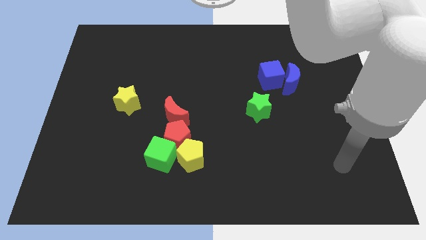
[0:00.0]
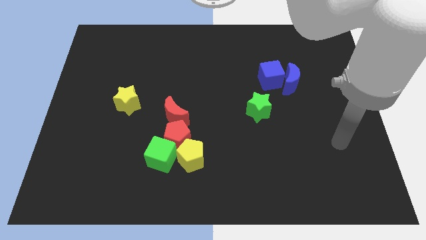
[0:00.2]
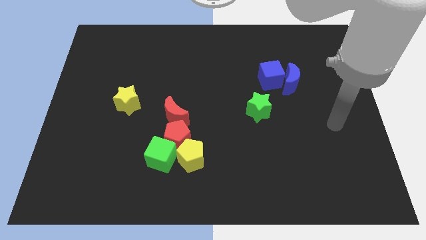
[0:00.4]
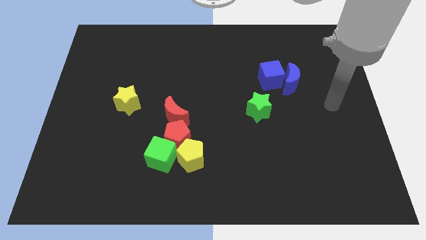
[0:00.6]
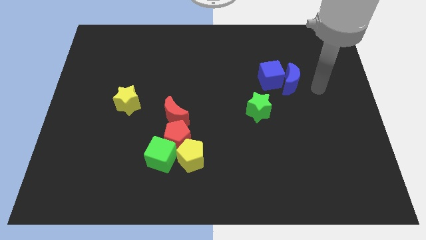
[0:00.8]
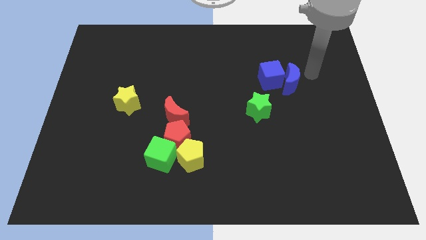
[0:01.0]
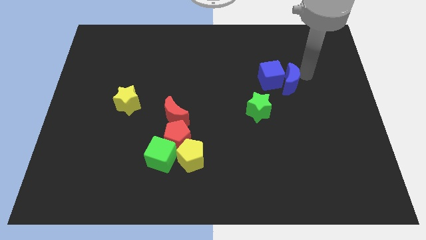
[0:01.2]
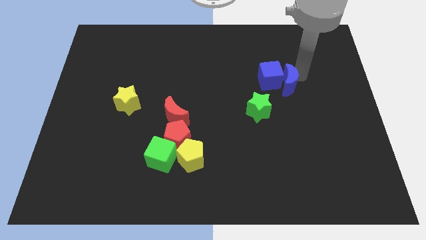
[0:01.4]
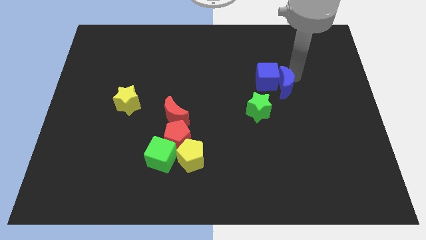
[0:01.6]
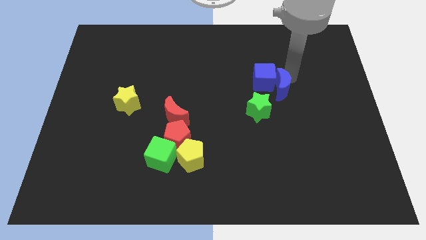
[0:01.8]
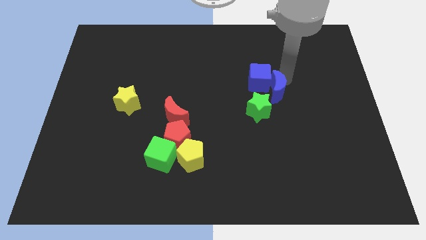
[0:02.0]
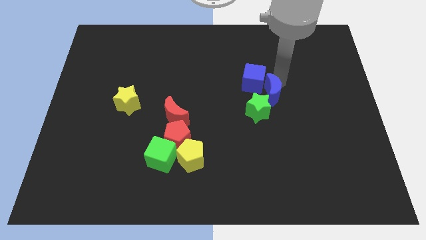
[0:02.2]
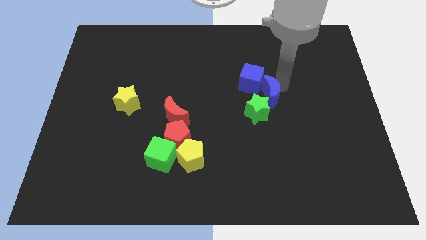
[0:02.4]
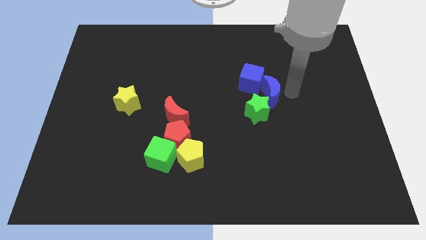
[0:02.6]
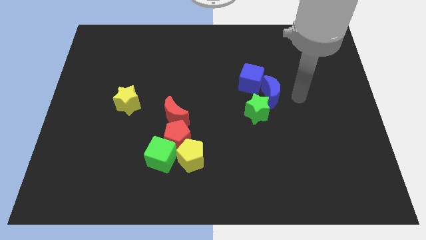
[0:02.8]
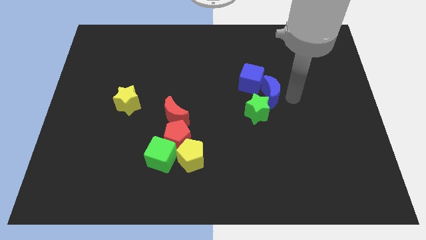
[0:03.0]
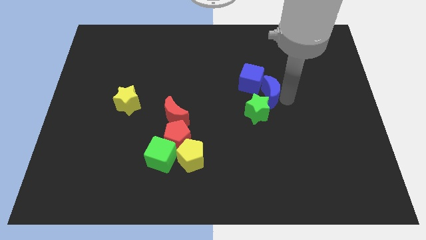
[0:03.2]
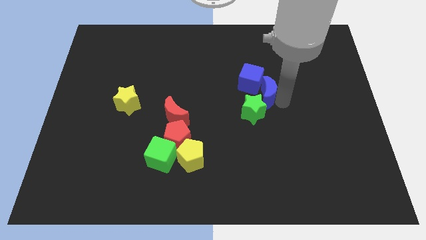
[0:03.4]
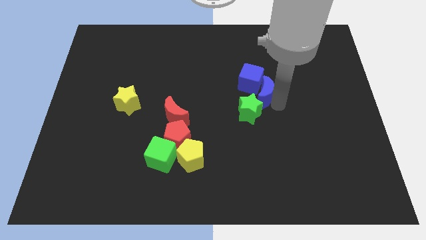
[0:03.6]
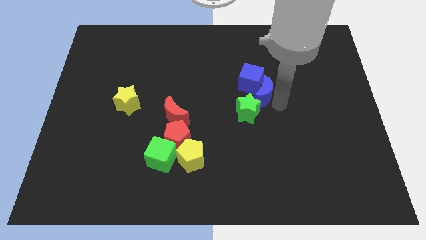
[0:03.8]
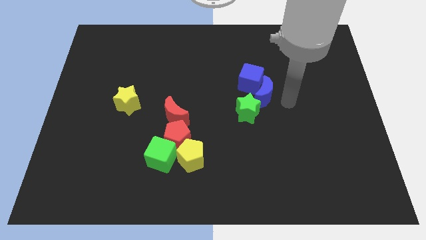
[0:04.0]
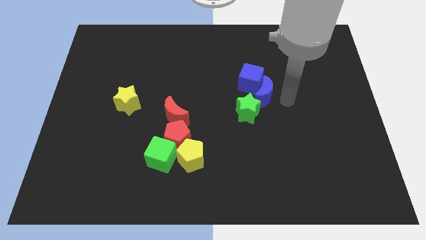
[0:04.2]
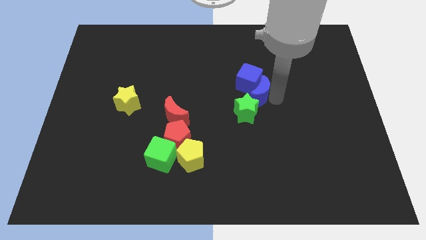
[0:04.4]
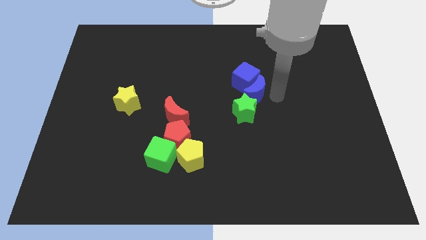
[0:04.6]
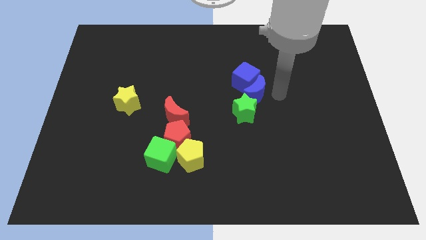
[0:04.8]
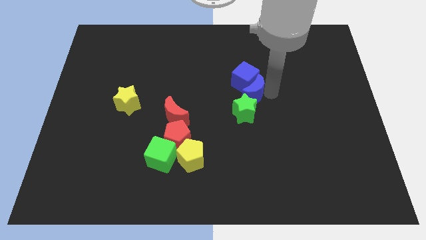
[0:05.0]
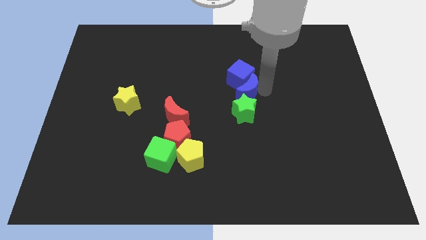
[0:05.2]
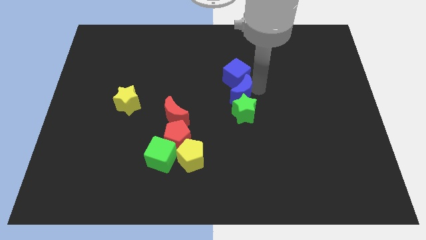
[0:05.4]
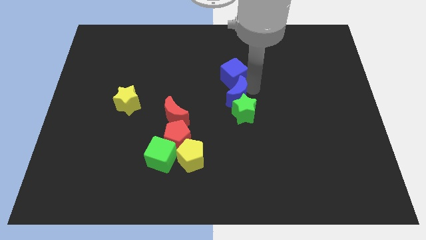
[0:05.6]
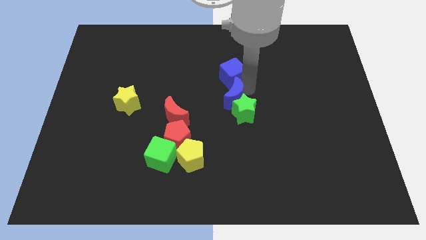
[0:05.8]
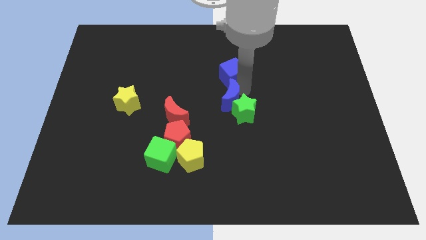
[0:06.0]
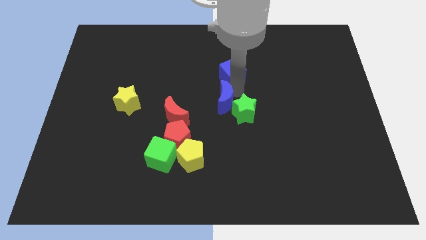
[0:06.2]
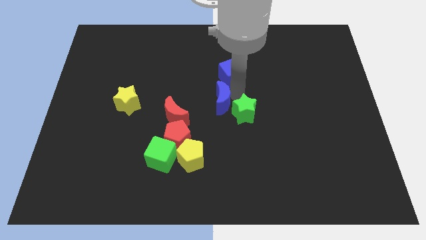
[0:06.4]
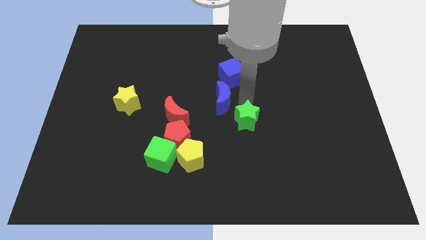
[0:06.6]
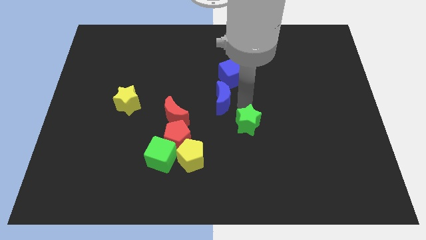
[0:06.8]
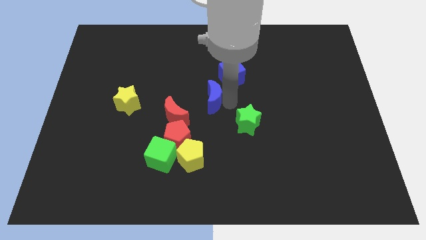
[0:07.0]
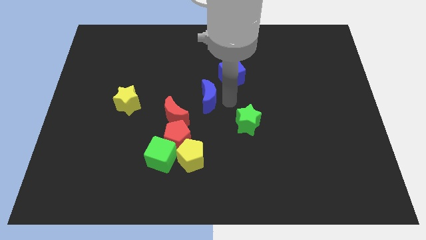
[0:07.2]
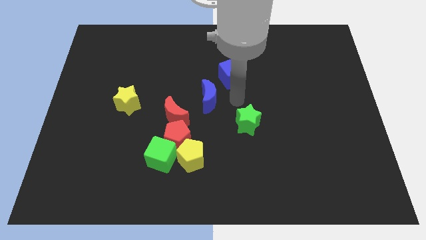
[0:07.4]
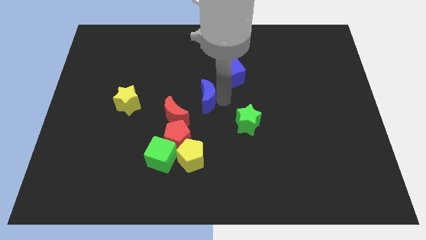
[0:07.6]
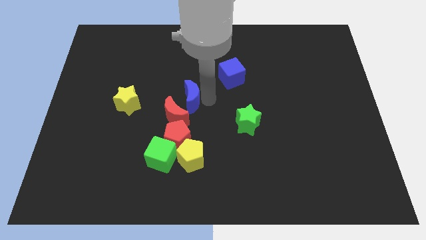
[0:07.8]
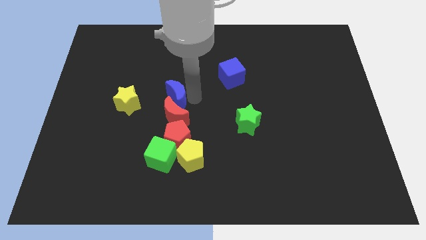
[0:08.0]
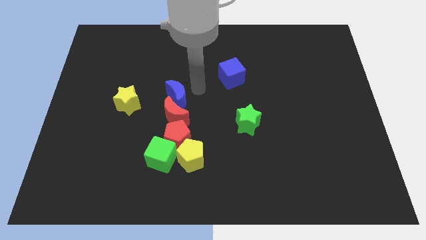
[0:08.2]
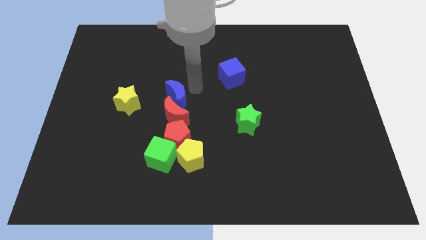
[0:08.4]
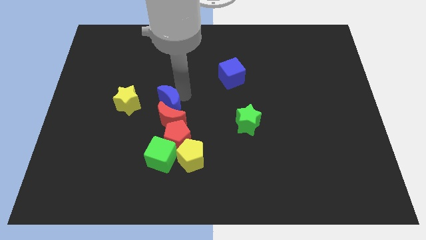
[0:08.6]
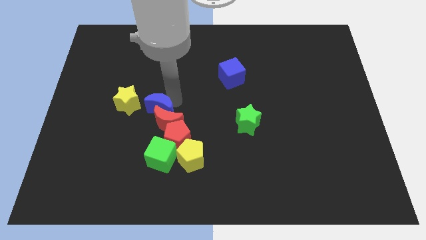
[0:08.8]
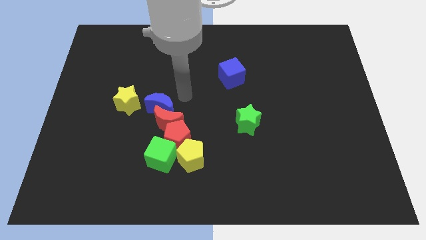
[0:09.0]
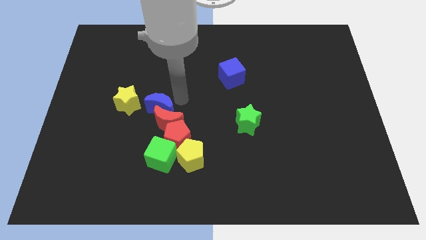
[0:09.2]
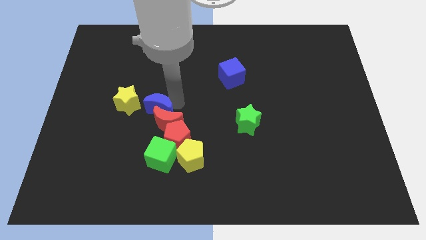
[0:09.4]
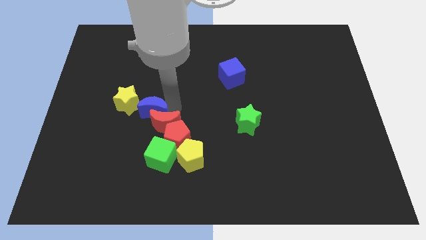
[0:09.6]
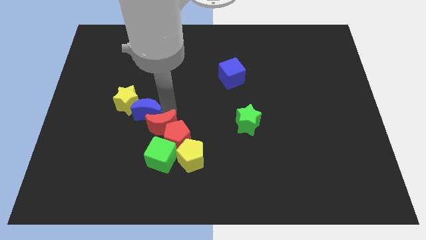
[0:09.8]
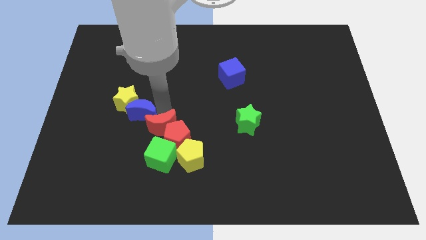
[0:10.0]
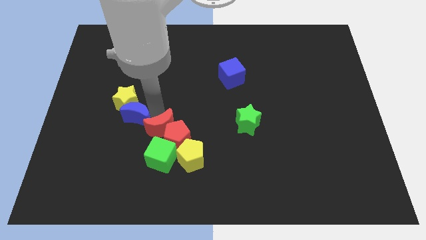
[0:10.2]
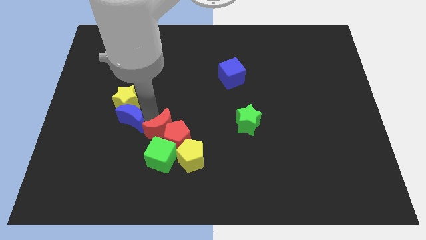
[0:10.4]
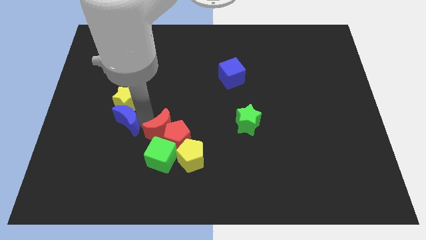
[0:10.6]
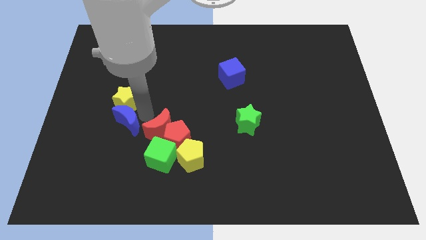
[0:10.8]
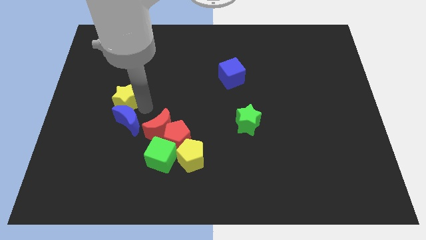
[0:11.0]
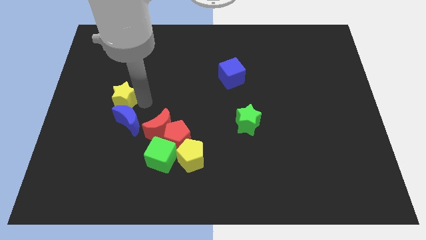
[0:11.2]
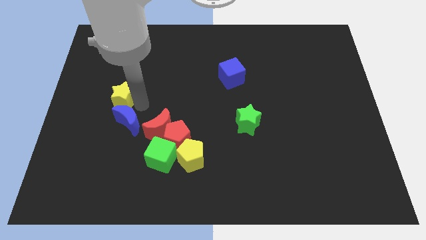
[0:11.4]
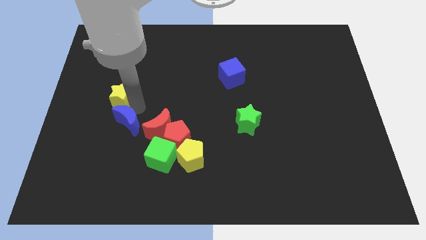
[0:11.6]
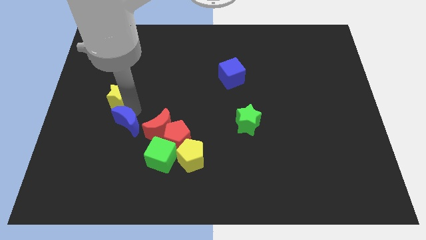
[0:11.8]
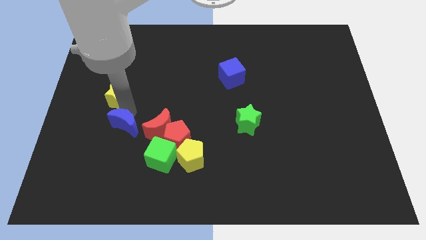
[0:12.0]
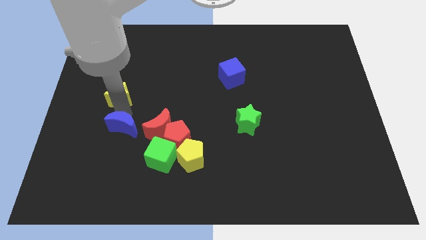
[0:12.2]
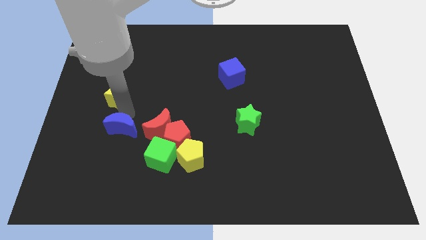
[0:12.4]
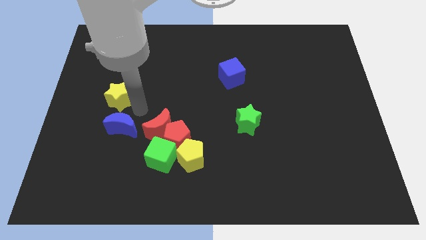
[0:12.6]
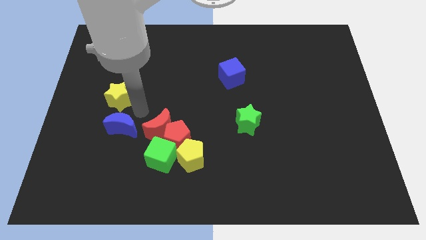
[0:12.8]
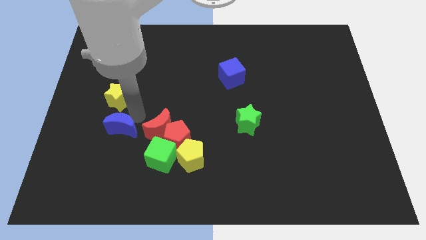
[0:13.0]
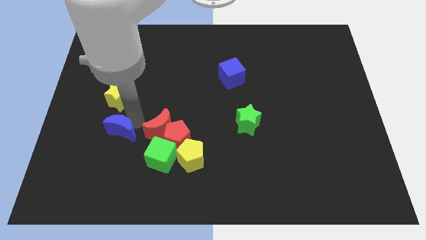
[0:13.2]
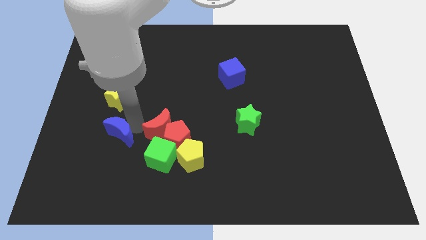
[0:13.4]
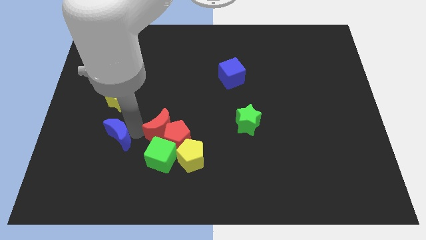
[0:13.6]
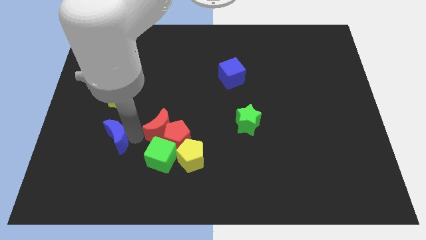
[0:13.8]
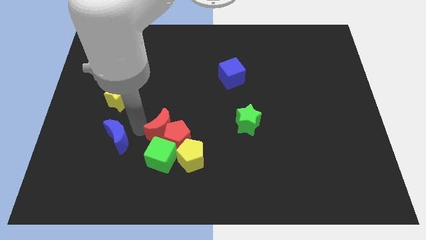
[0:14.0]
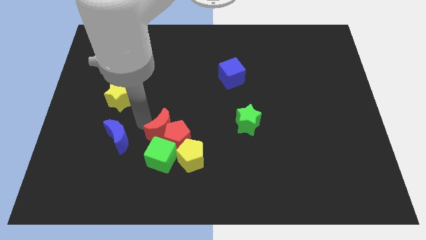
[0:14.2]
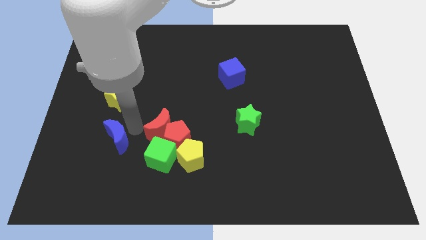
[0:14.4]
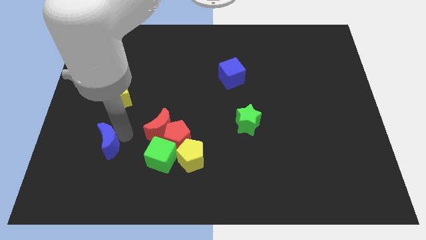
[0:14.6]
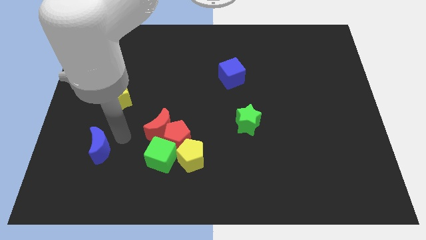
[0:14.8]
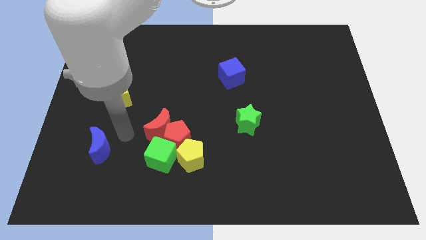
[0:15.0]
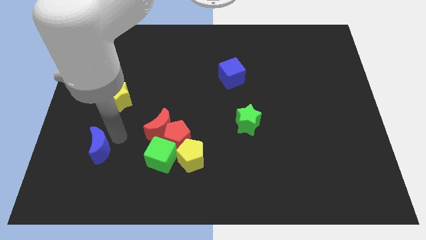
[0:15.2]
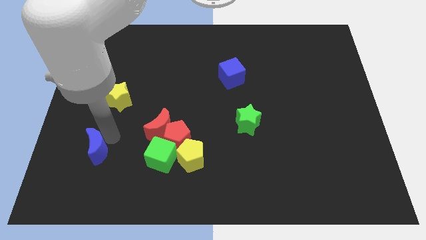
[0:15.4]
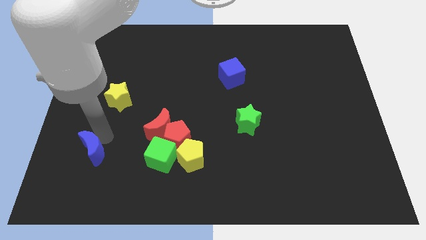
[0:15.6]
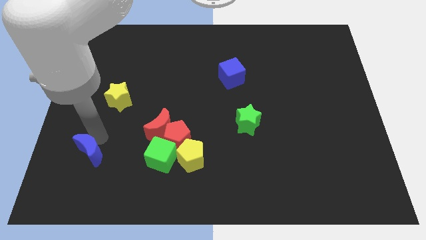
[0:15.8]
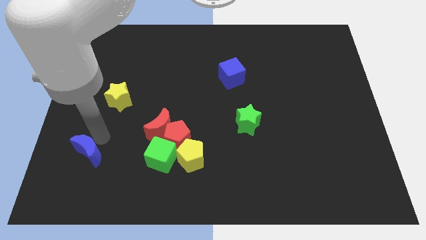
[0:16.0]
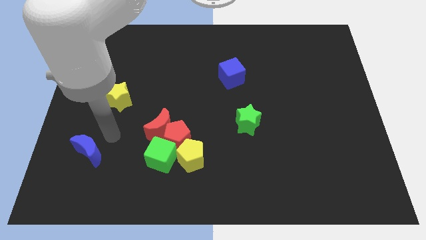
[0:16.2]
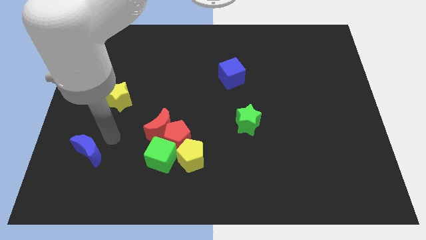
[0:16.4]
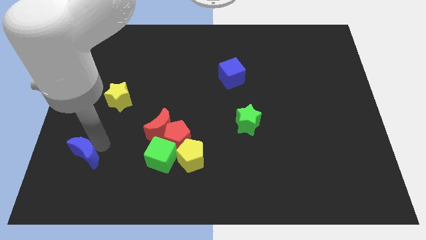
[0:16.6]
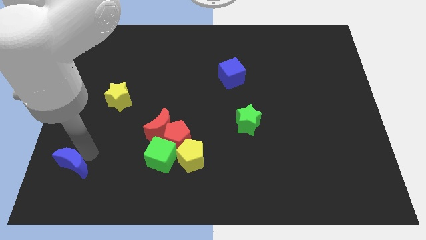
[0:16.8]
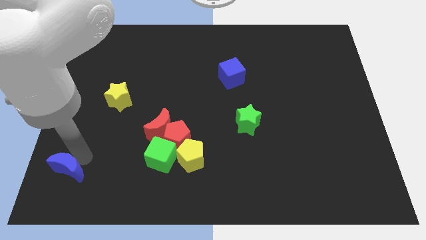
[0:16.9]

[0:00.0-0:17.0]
put the blue moon to the lower left corner
